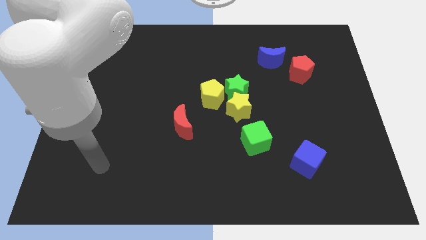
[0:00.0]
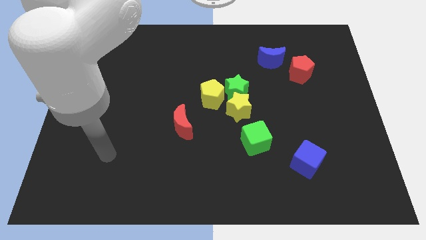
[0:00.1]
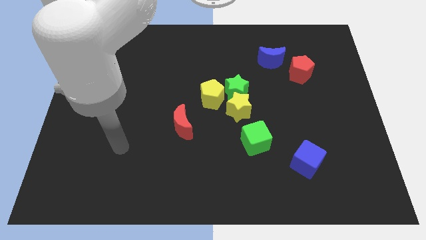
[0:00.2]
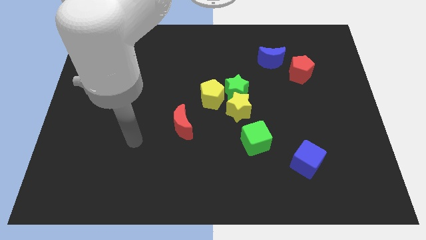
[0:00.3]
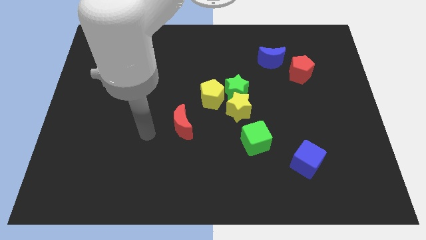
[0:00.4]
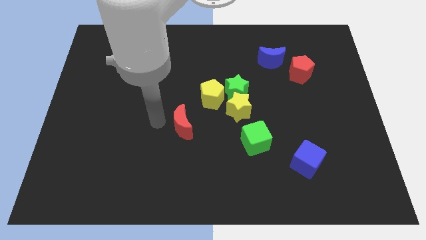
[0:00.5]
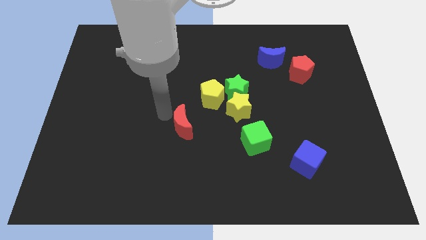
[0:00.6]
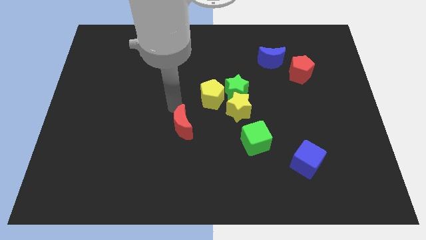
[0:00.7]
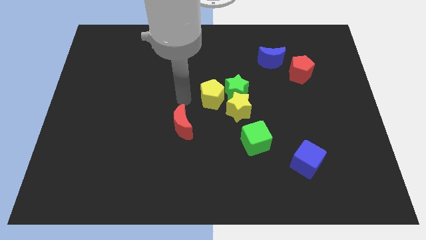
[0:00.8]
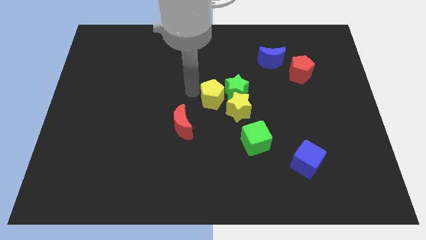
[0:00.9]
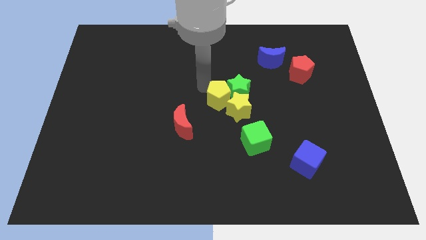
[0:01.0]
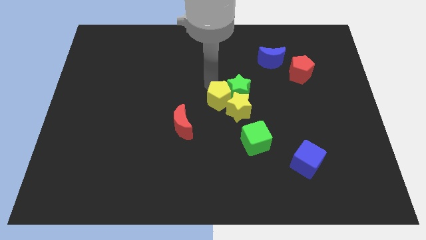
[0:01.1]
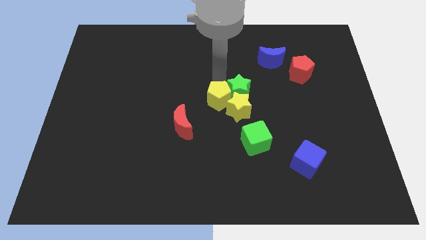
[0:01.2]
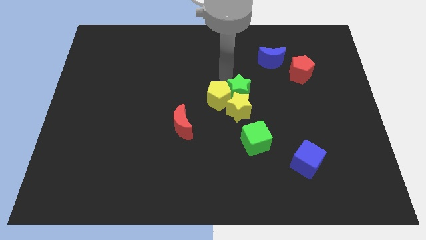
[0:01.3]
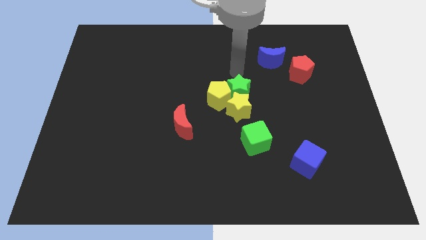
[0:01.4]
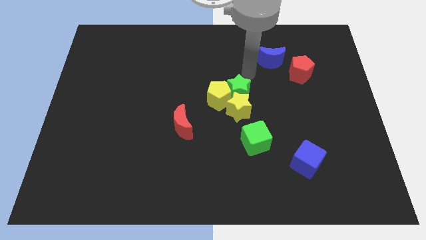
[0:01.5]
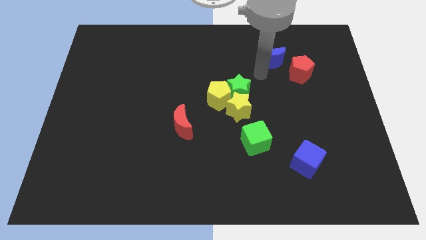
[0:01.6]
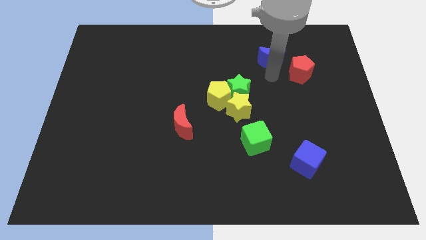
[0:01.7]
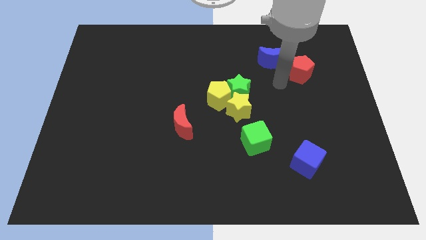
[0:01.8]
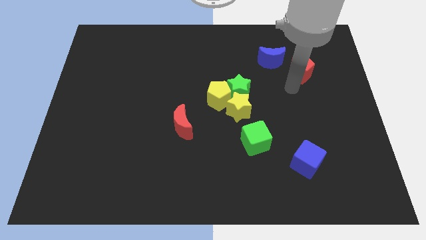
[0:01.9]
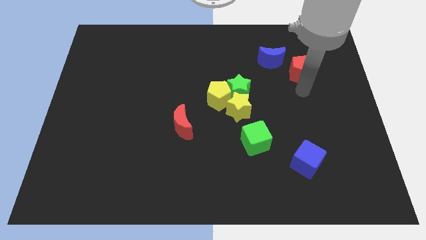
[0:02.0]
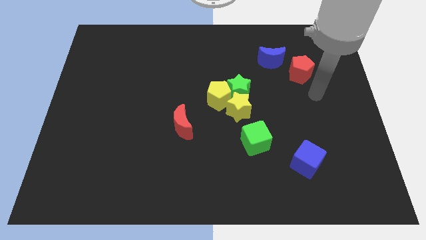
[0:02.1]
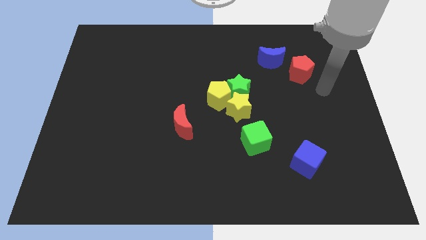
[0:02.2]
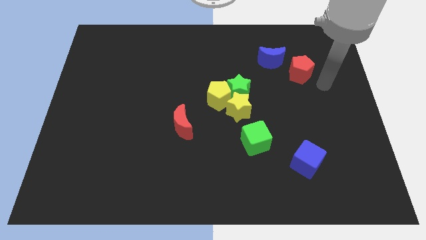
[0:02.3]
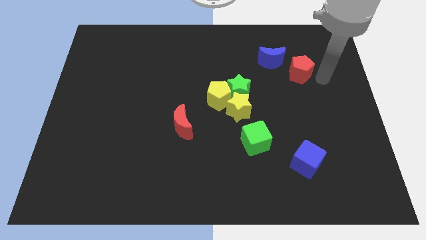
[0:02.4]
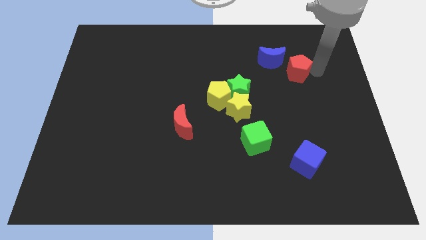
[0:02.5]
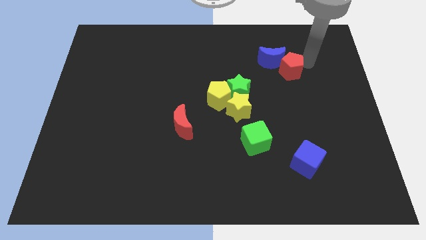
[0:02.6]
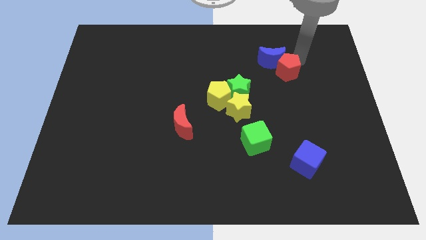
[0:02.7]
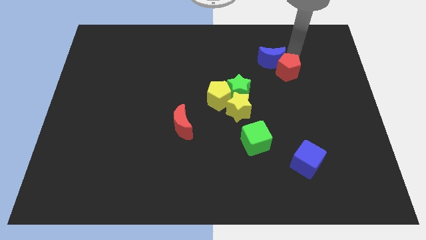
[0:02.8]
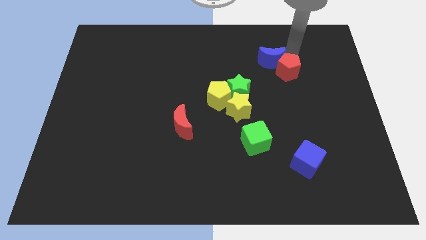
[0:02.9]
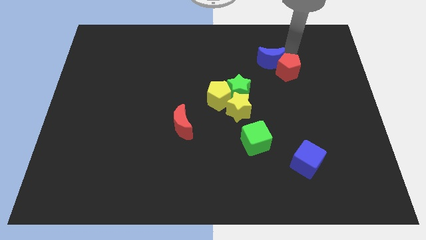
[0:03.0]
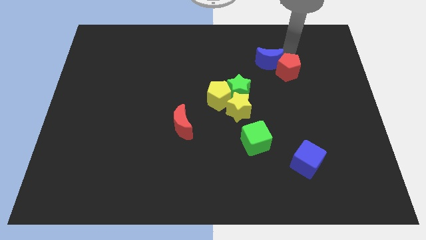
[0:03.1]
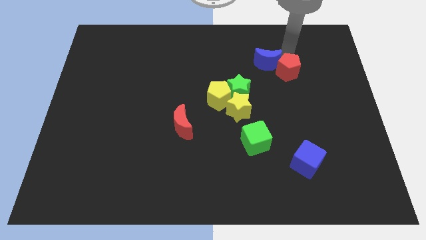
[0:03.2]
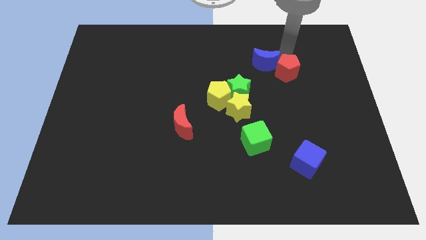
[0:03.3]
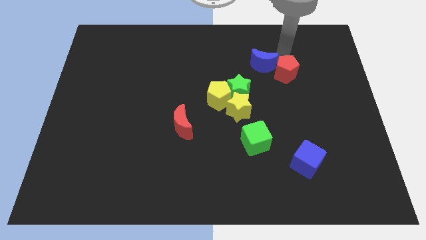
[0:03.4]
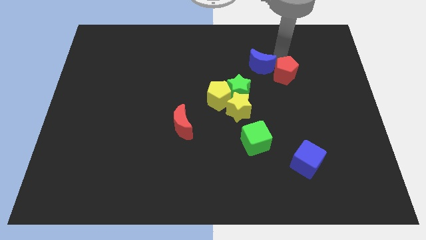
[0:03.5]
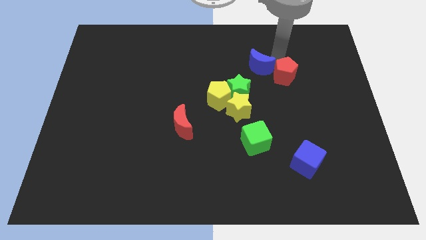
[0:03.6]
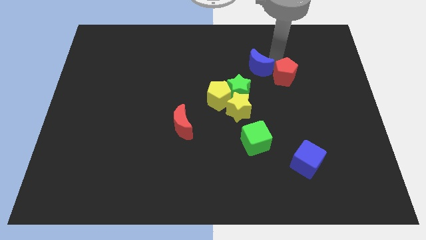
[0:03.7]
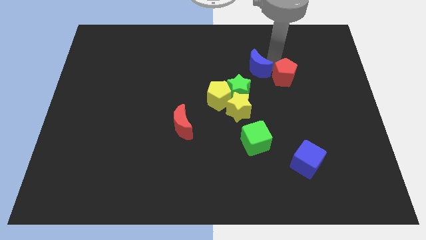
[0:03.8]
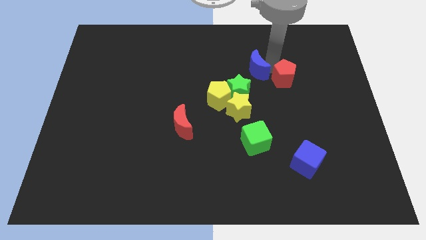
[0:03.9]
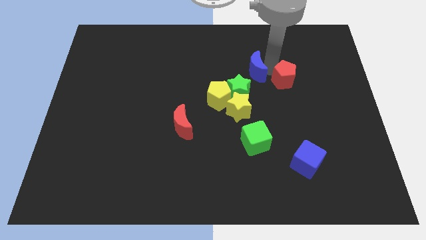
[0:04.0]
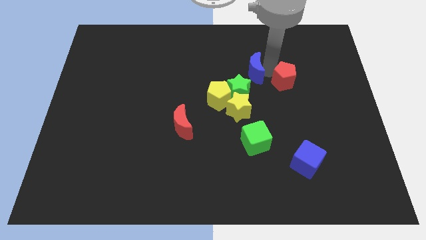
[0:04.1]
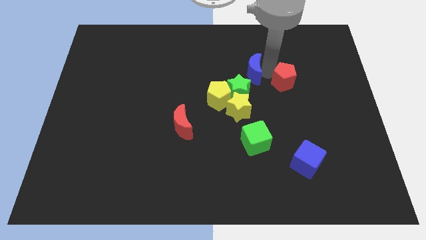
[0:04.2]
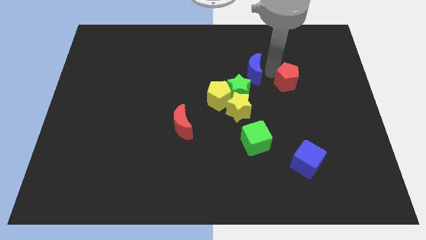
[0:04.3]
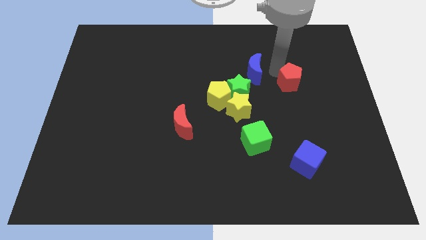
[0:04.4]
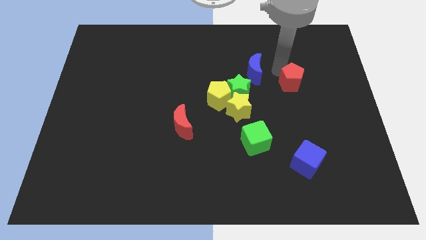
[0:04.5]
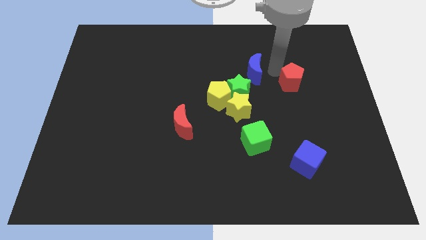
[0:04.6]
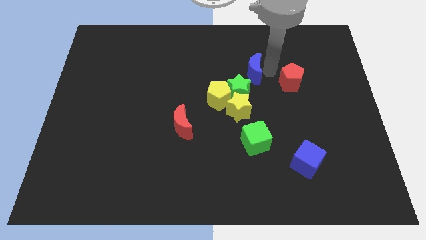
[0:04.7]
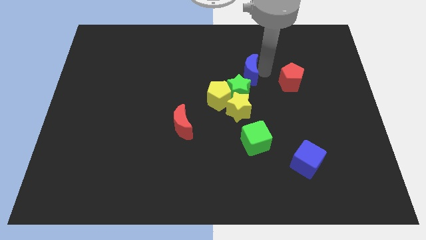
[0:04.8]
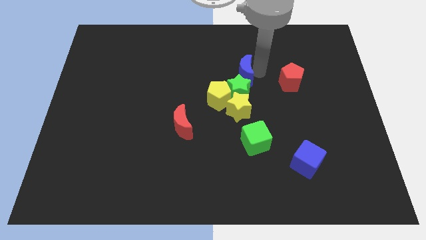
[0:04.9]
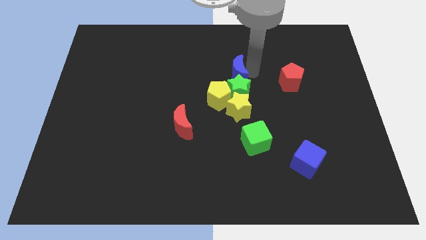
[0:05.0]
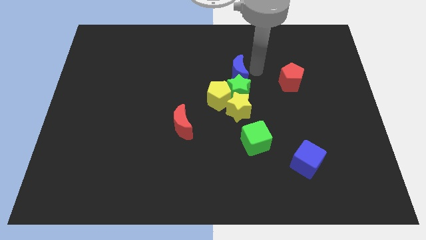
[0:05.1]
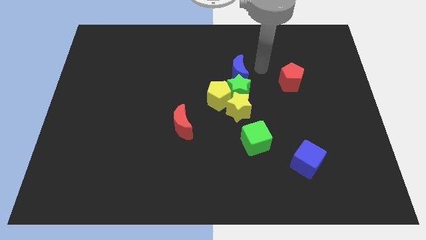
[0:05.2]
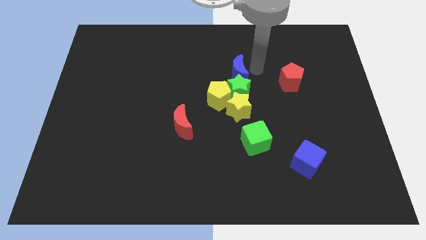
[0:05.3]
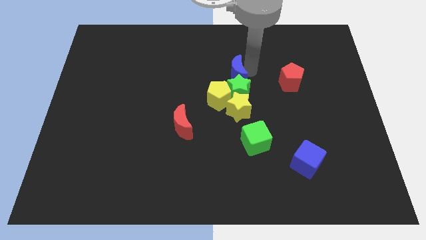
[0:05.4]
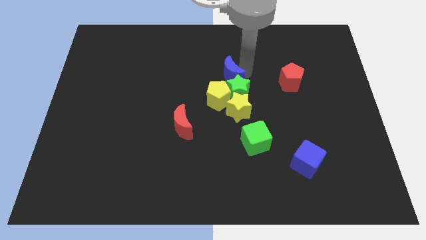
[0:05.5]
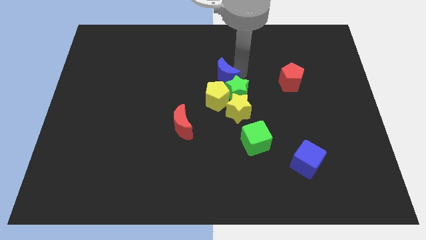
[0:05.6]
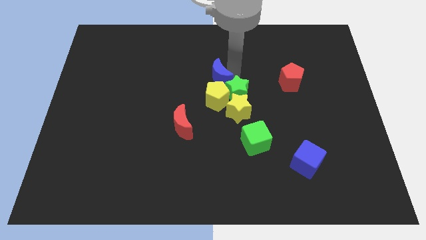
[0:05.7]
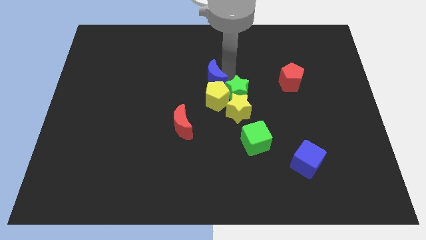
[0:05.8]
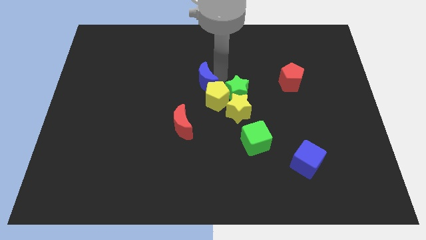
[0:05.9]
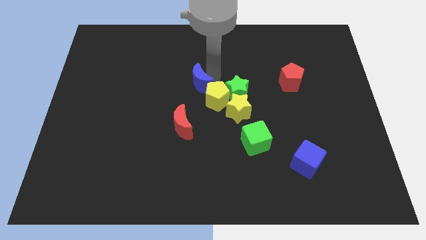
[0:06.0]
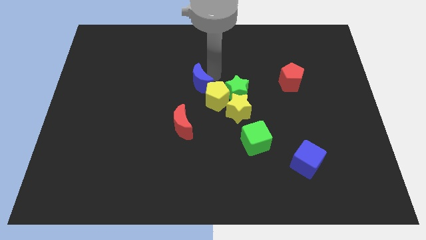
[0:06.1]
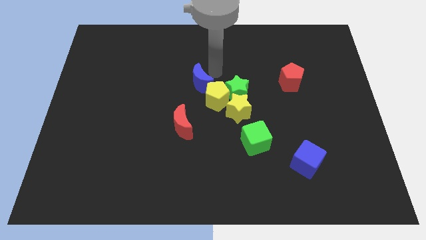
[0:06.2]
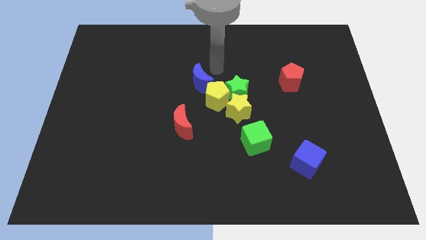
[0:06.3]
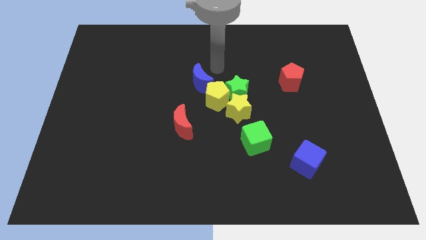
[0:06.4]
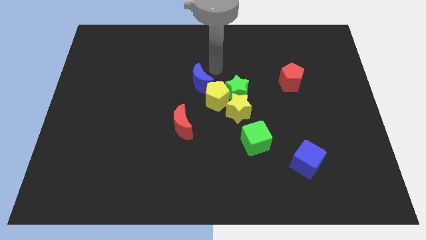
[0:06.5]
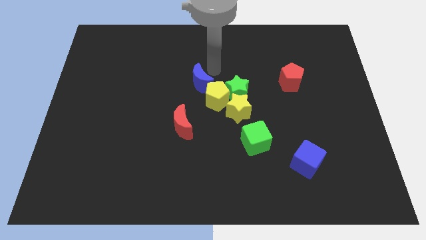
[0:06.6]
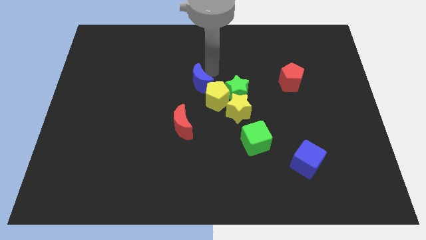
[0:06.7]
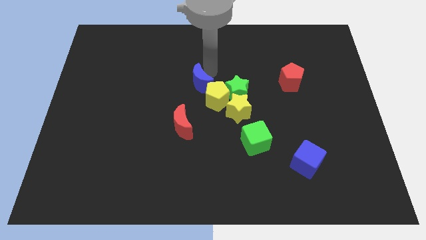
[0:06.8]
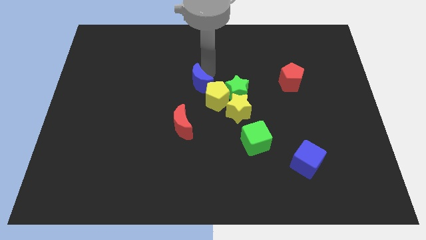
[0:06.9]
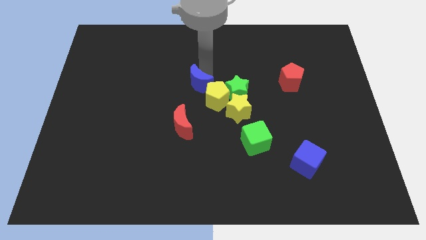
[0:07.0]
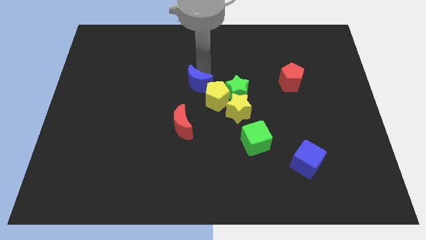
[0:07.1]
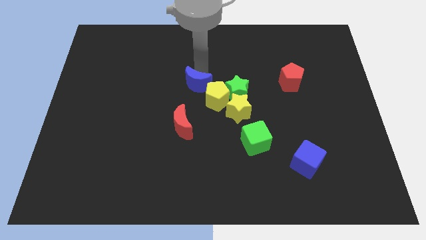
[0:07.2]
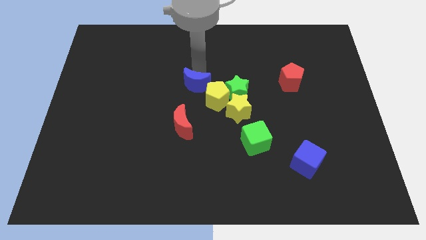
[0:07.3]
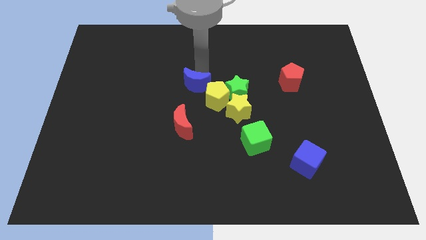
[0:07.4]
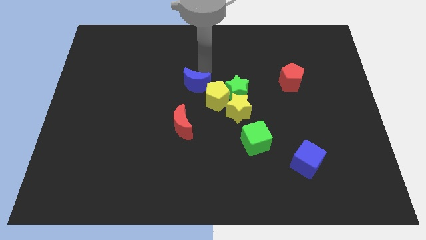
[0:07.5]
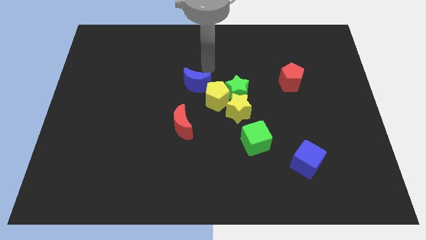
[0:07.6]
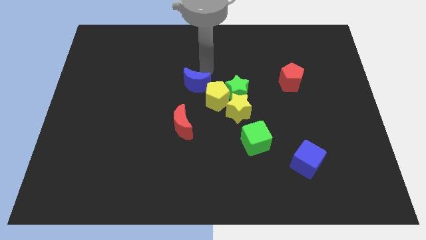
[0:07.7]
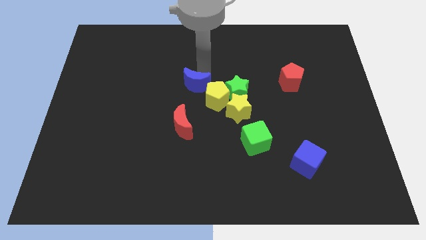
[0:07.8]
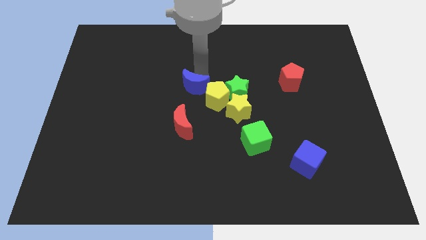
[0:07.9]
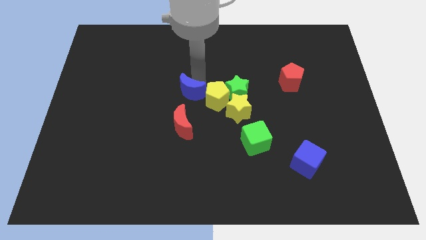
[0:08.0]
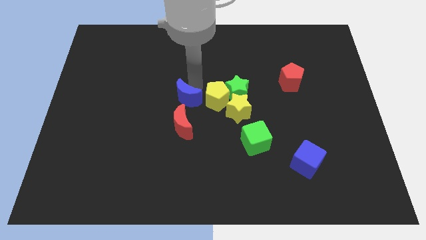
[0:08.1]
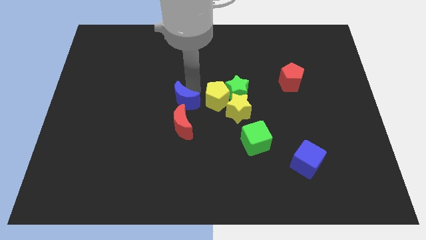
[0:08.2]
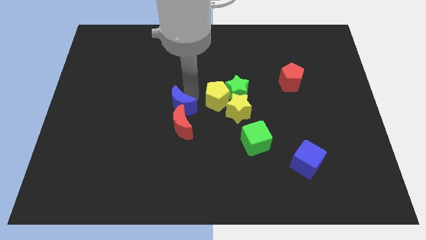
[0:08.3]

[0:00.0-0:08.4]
move the blue moon to the top left of the red moon
